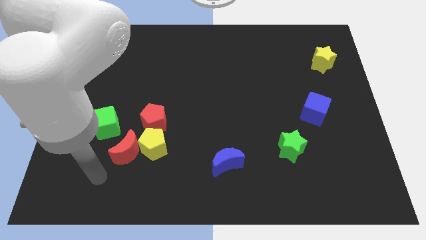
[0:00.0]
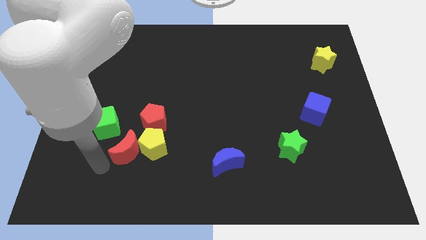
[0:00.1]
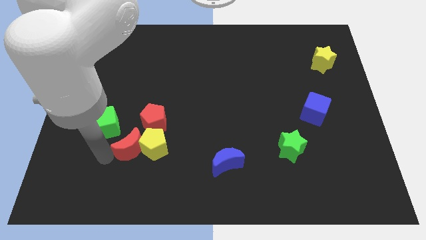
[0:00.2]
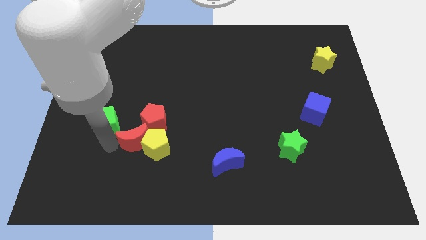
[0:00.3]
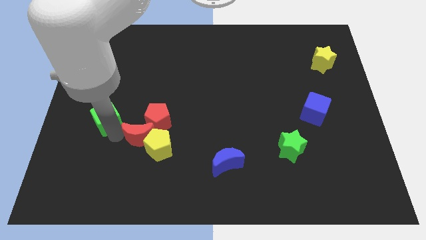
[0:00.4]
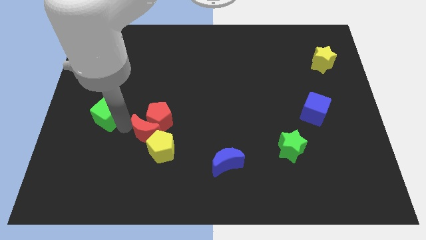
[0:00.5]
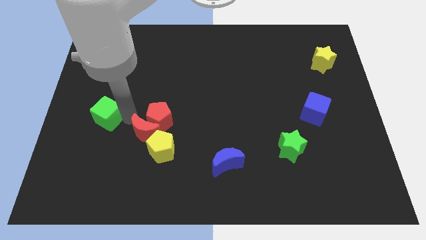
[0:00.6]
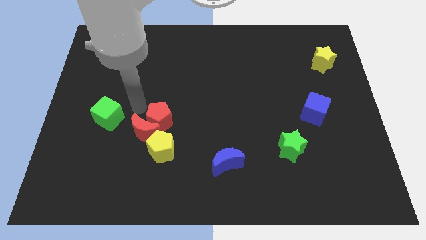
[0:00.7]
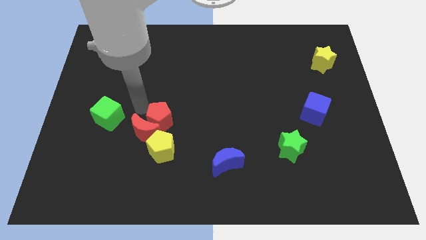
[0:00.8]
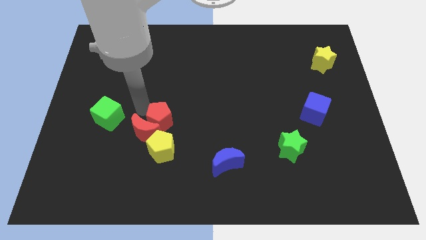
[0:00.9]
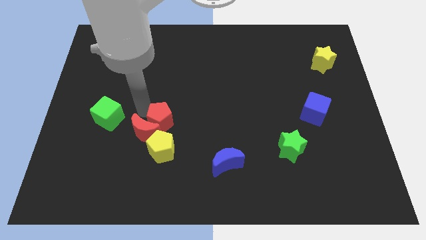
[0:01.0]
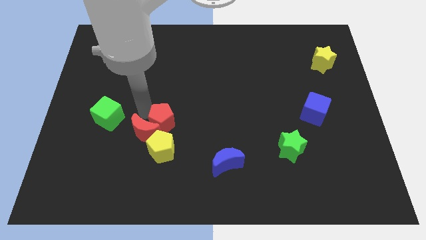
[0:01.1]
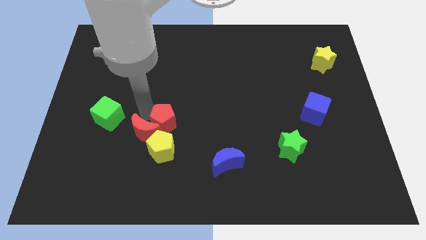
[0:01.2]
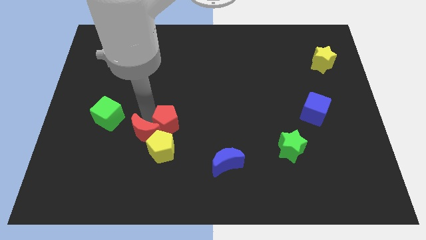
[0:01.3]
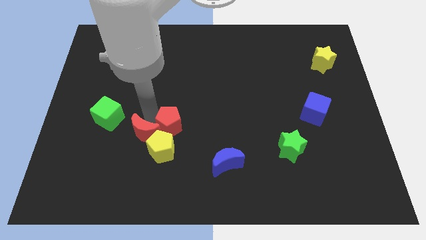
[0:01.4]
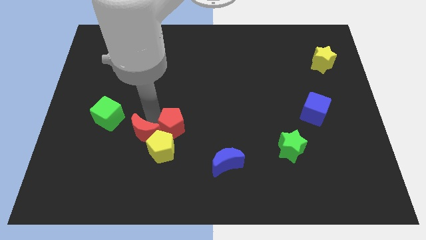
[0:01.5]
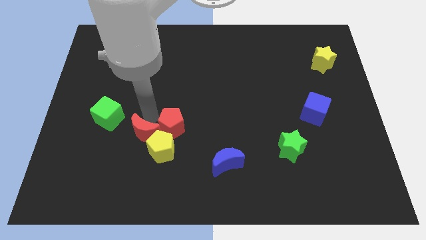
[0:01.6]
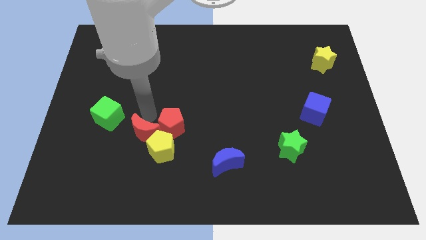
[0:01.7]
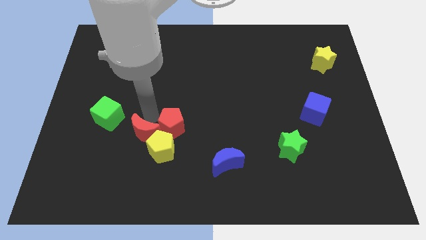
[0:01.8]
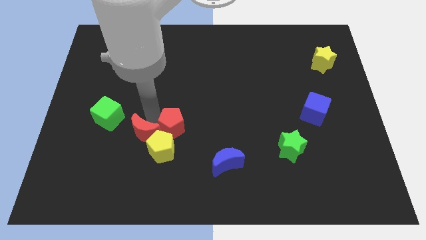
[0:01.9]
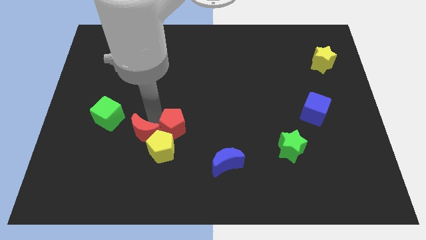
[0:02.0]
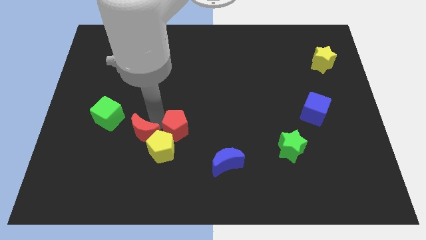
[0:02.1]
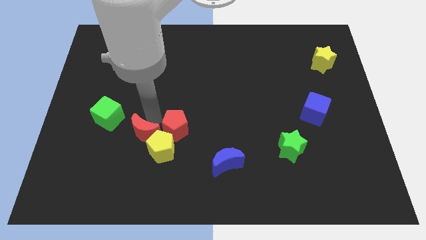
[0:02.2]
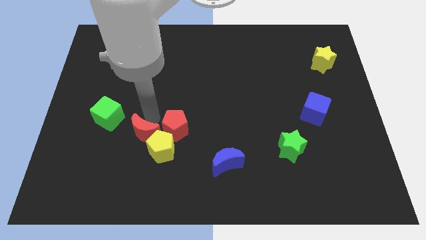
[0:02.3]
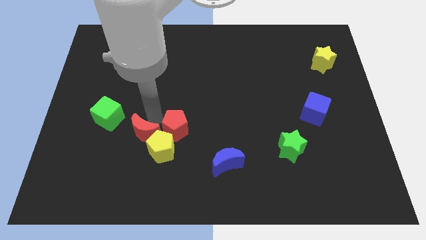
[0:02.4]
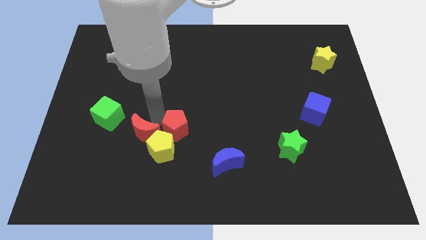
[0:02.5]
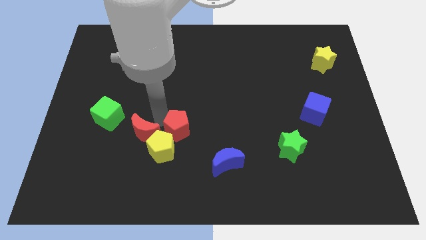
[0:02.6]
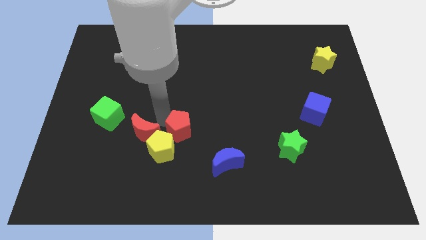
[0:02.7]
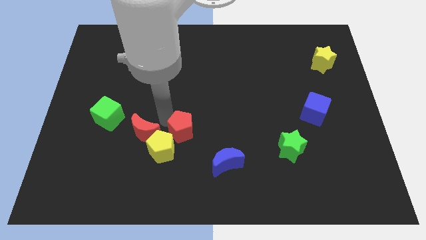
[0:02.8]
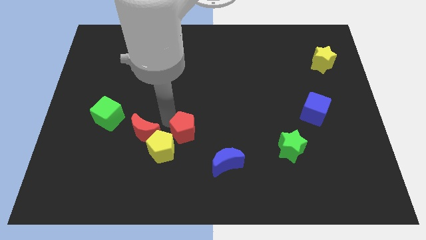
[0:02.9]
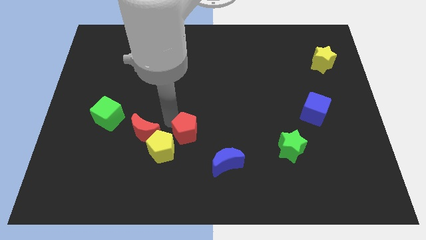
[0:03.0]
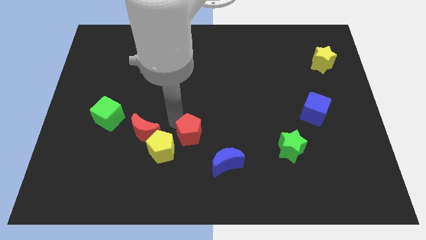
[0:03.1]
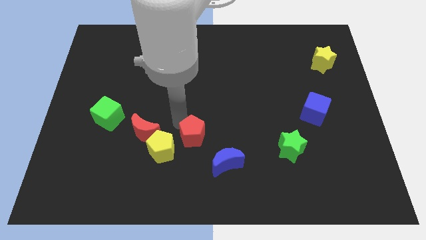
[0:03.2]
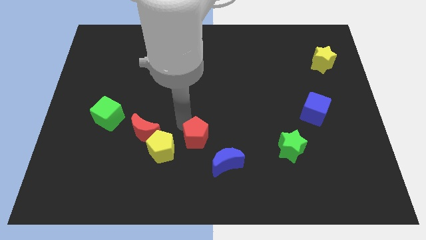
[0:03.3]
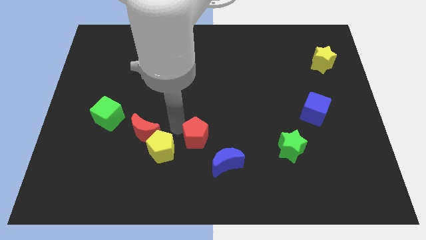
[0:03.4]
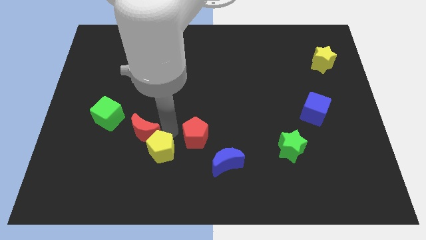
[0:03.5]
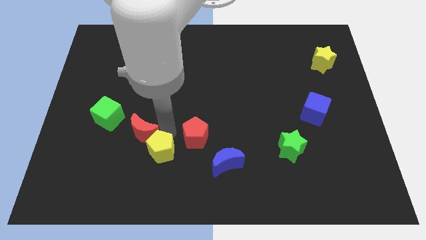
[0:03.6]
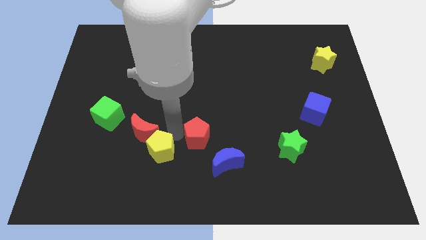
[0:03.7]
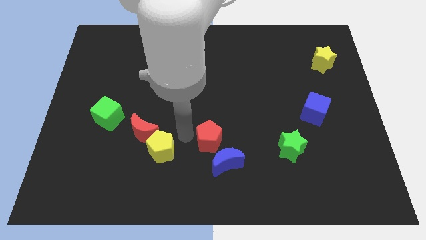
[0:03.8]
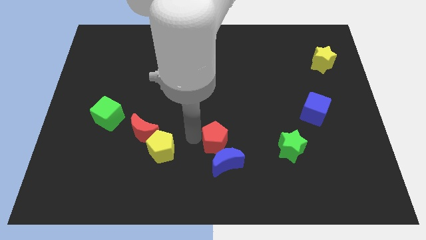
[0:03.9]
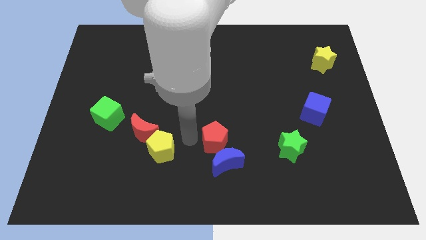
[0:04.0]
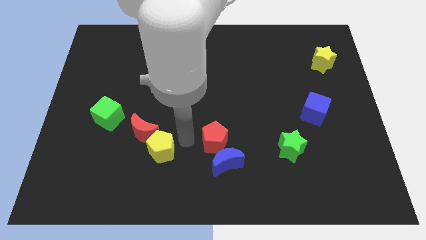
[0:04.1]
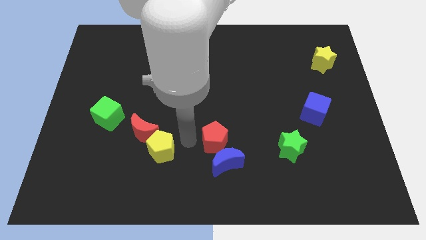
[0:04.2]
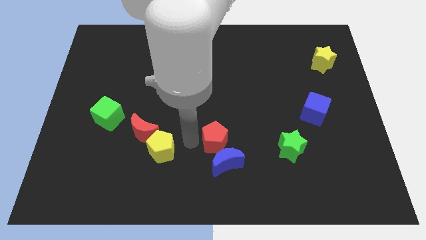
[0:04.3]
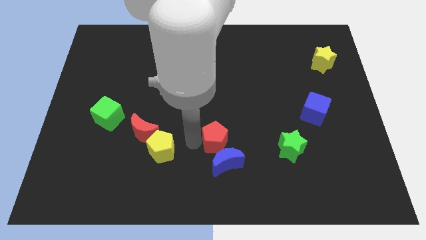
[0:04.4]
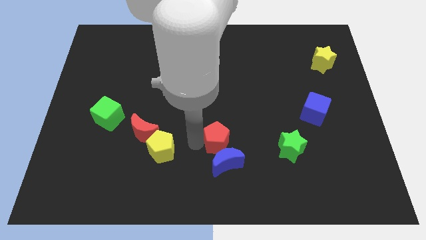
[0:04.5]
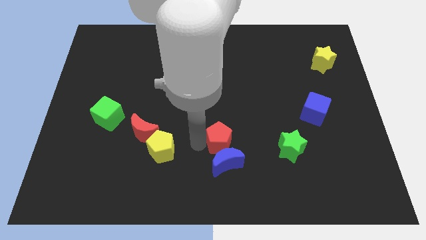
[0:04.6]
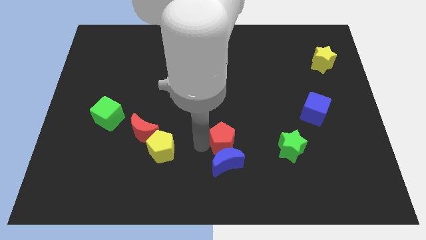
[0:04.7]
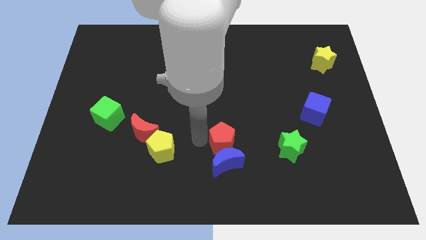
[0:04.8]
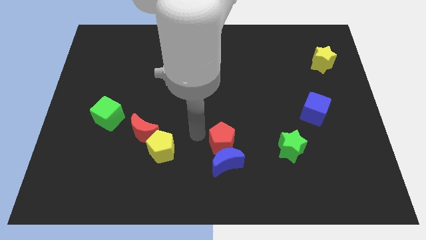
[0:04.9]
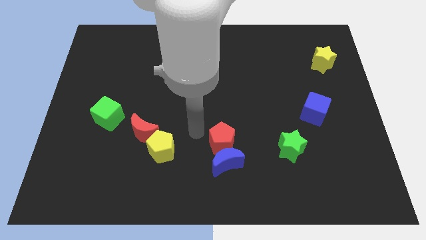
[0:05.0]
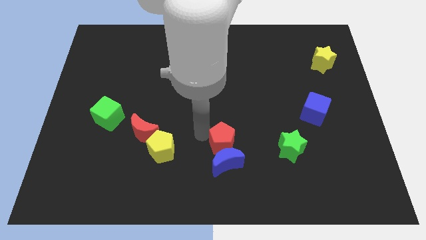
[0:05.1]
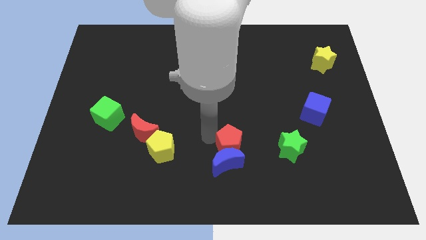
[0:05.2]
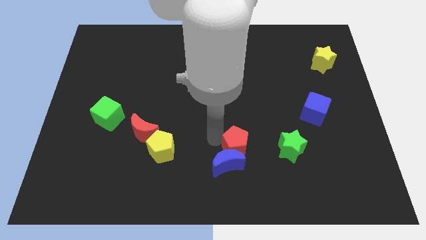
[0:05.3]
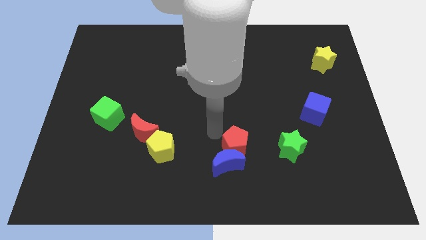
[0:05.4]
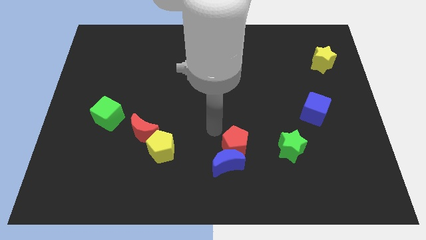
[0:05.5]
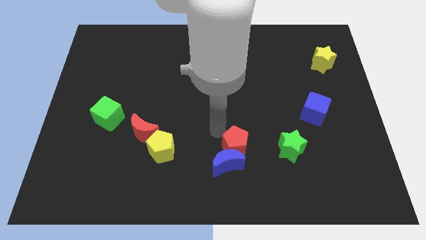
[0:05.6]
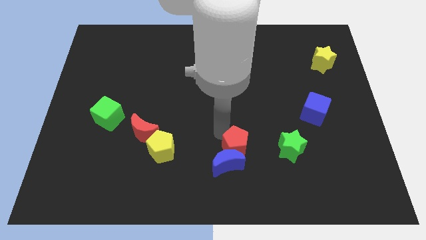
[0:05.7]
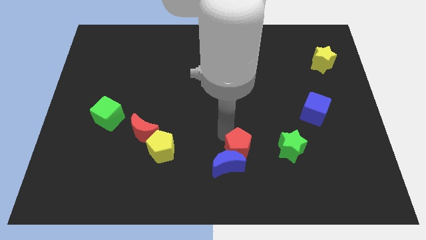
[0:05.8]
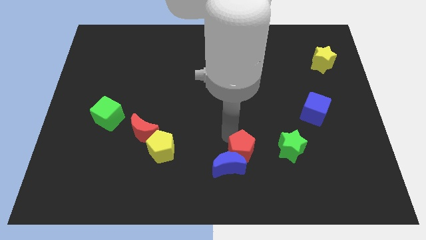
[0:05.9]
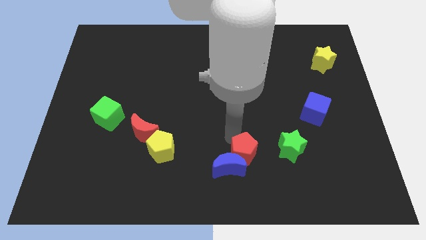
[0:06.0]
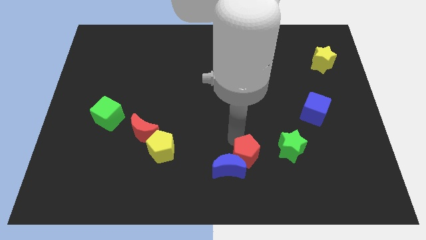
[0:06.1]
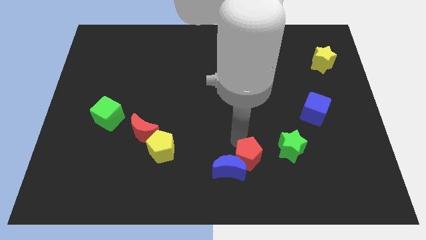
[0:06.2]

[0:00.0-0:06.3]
slide the red pentagon diagonally down and to the left of the green star

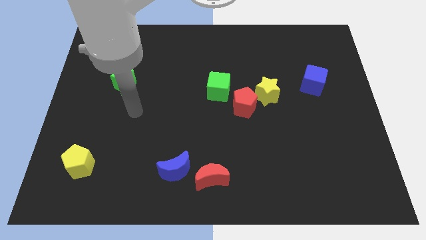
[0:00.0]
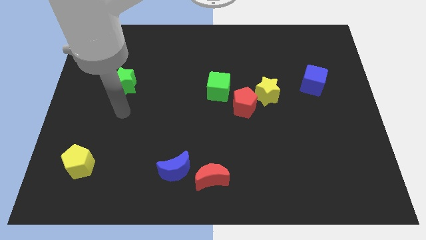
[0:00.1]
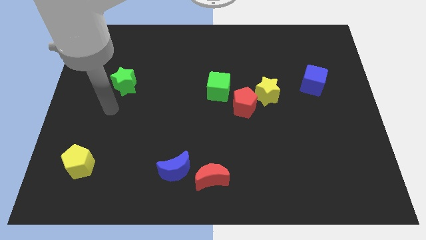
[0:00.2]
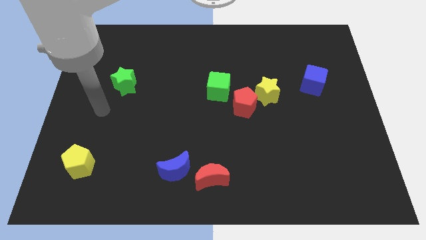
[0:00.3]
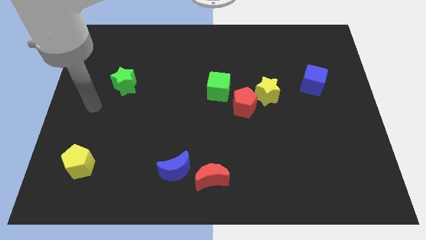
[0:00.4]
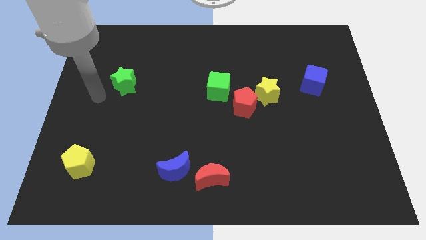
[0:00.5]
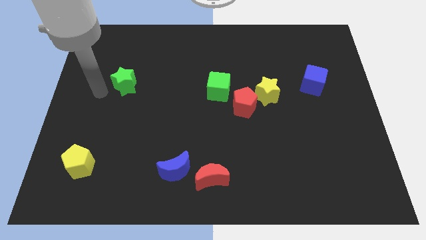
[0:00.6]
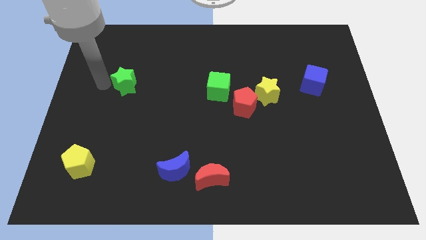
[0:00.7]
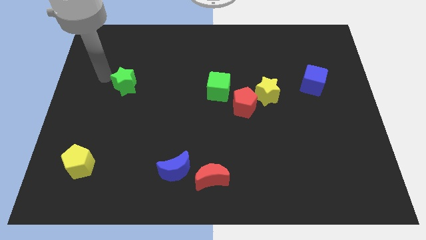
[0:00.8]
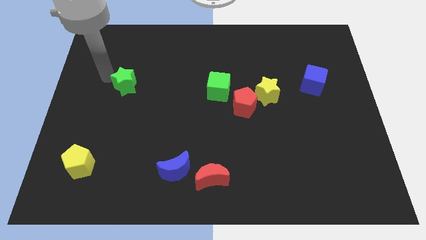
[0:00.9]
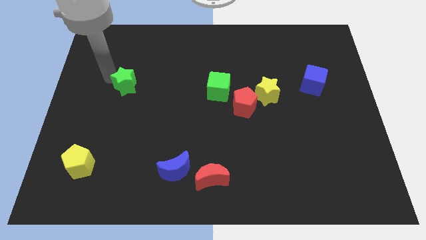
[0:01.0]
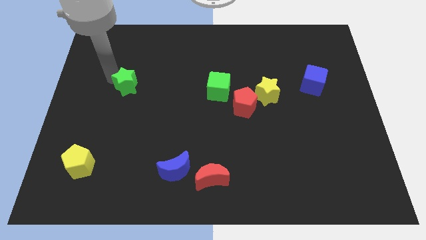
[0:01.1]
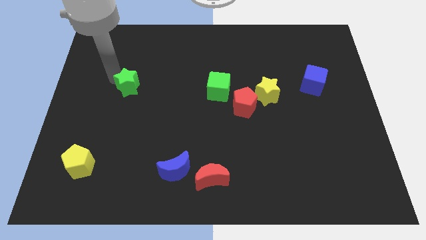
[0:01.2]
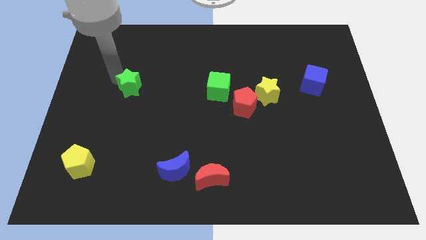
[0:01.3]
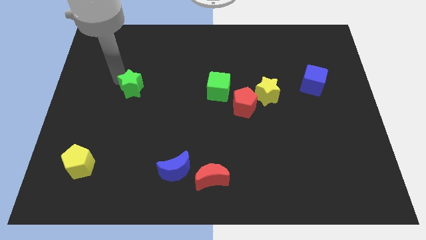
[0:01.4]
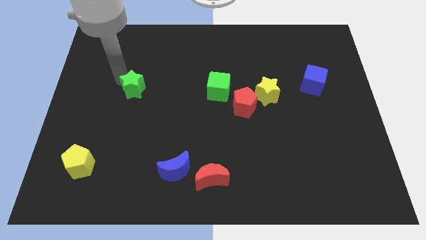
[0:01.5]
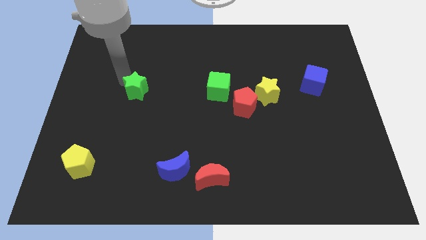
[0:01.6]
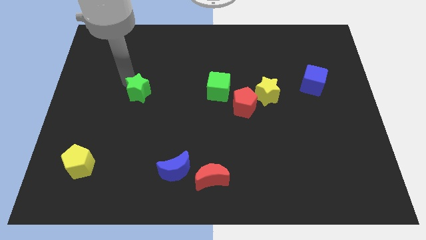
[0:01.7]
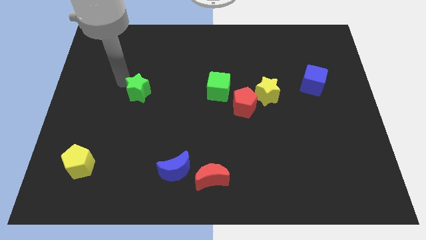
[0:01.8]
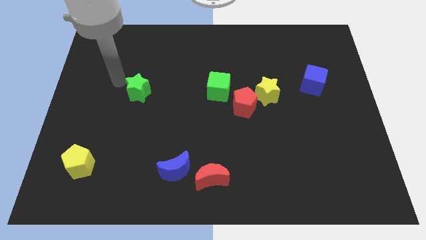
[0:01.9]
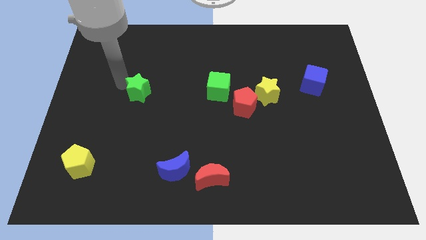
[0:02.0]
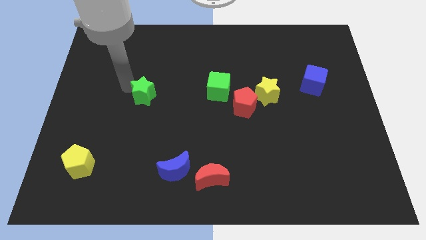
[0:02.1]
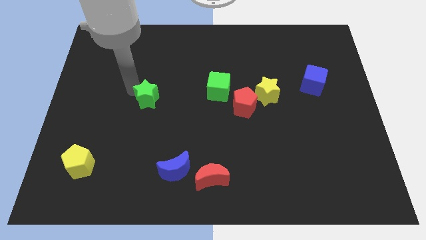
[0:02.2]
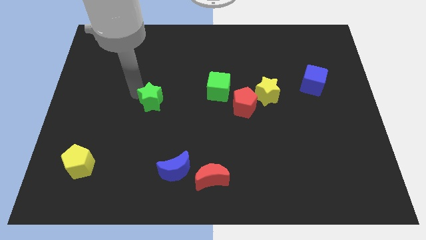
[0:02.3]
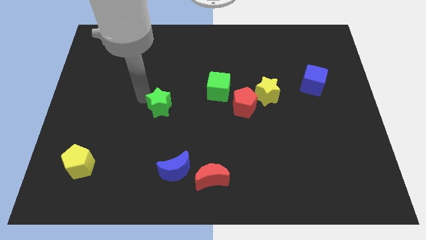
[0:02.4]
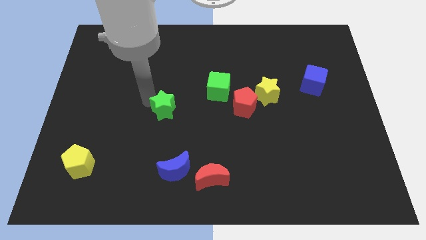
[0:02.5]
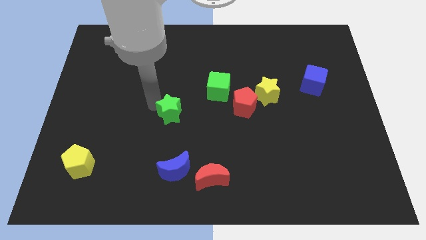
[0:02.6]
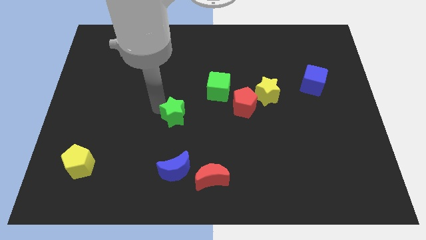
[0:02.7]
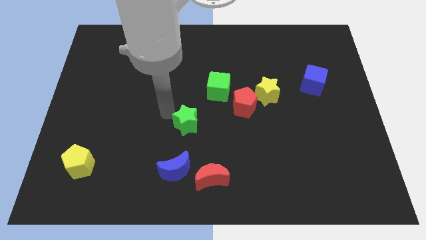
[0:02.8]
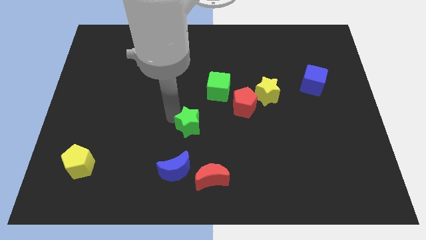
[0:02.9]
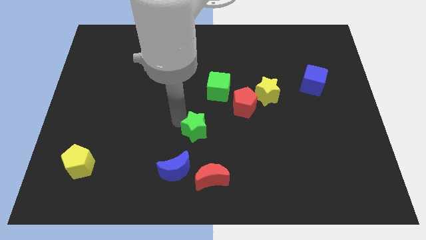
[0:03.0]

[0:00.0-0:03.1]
move the green star to the top of the red moon
